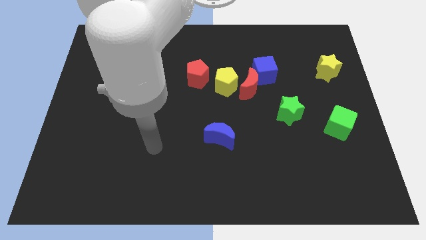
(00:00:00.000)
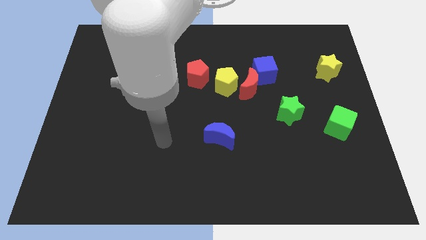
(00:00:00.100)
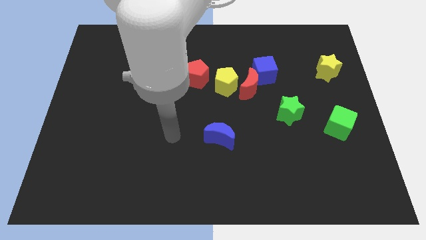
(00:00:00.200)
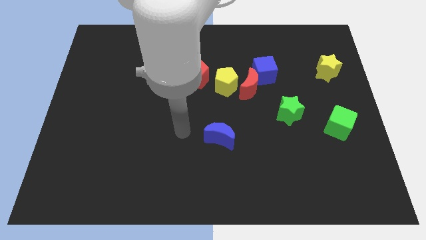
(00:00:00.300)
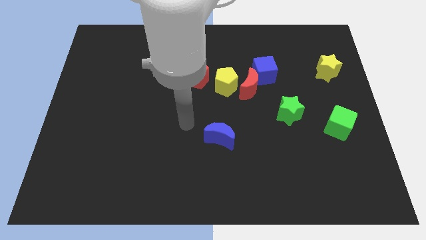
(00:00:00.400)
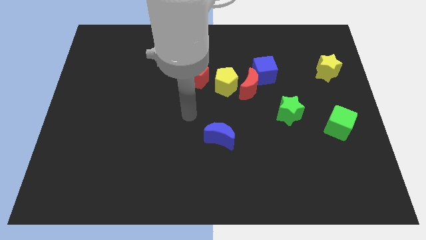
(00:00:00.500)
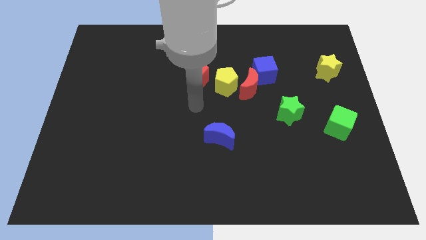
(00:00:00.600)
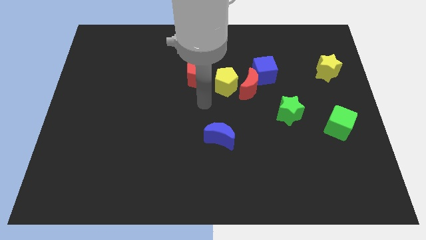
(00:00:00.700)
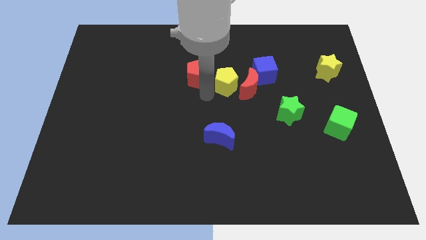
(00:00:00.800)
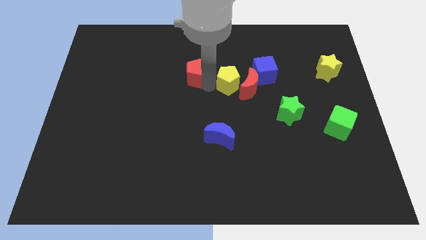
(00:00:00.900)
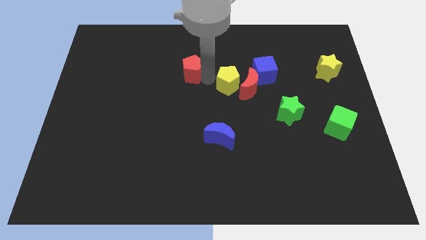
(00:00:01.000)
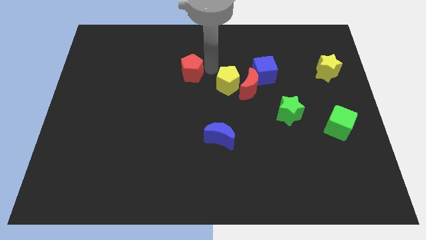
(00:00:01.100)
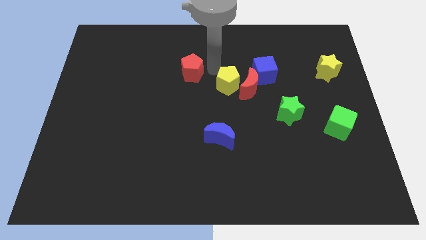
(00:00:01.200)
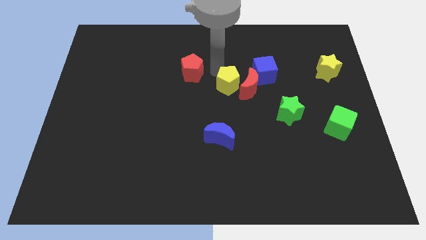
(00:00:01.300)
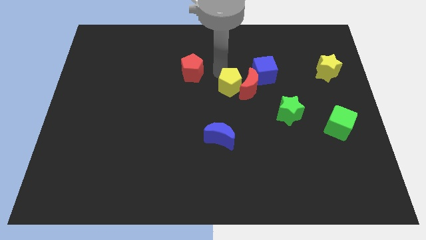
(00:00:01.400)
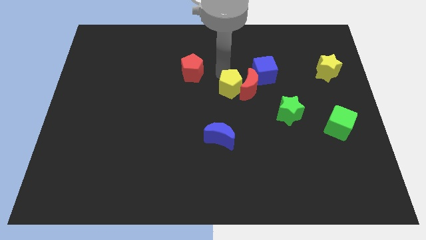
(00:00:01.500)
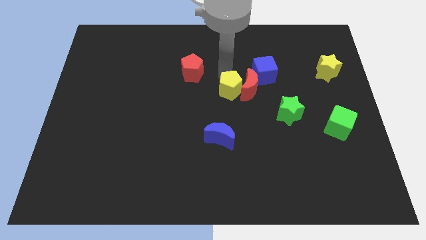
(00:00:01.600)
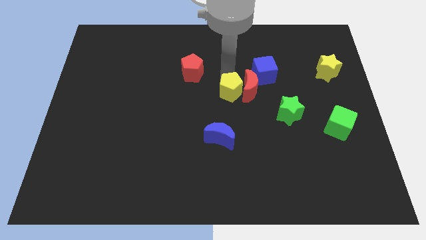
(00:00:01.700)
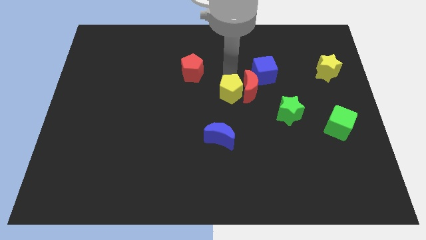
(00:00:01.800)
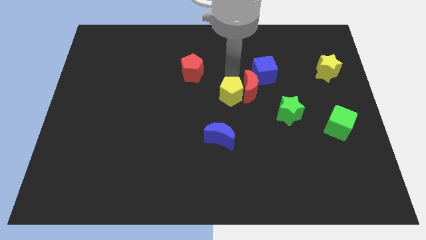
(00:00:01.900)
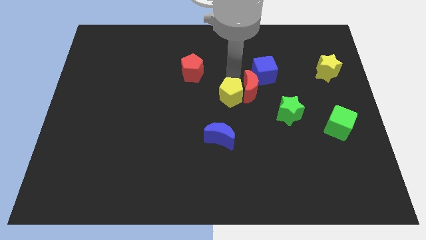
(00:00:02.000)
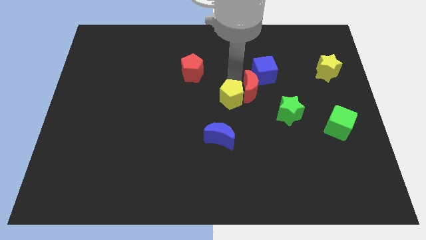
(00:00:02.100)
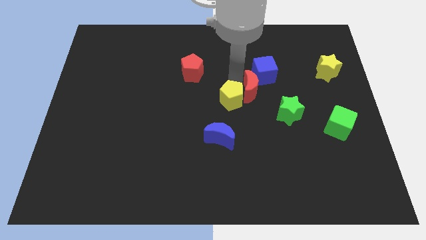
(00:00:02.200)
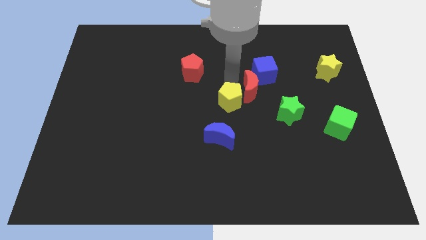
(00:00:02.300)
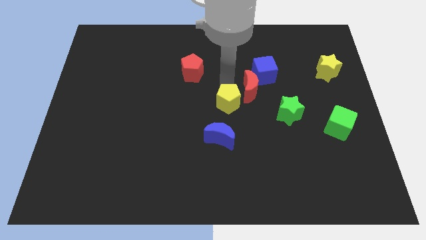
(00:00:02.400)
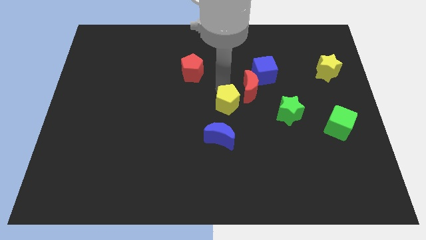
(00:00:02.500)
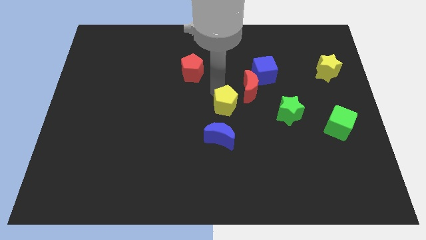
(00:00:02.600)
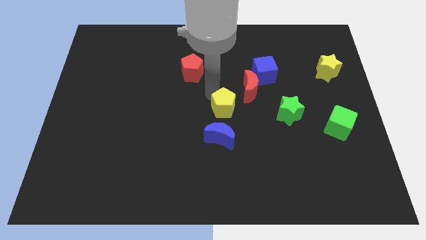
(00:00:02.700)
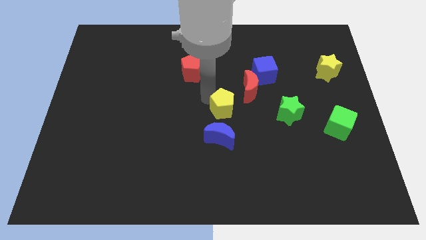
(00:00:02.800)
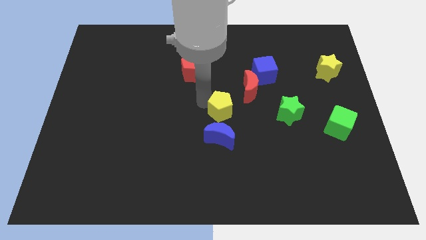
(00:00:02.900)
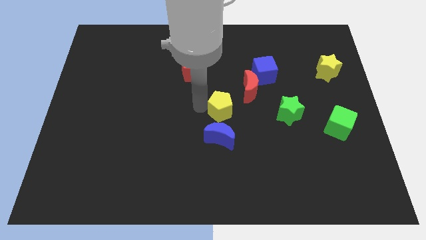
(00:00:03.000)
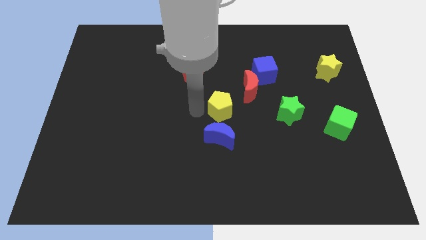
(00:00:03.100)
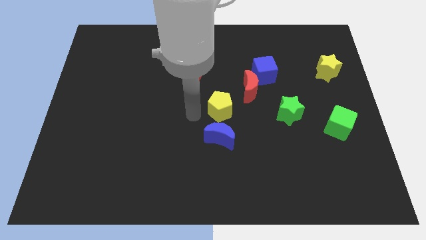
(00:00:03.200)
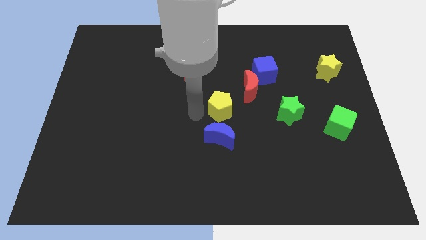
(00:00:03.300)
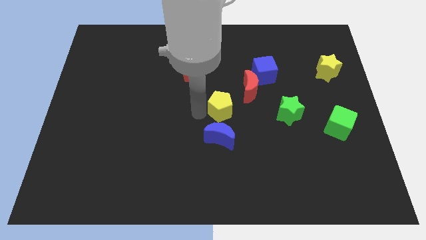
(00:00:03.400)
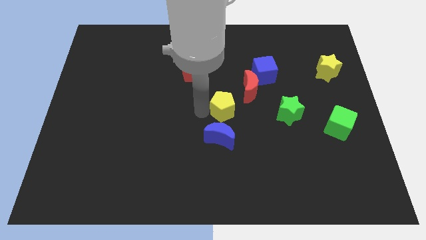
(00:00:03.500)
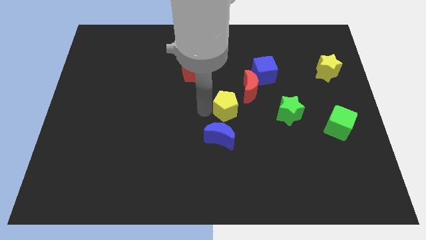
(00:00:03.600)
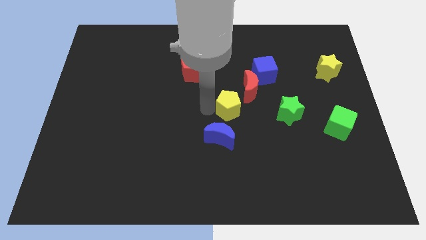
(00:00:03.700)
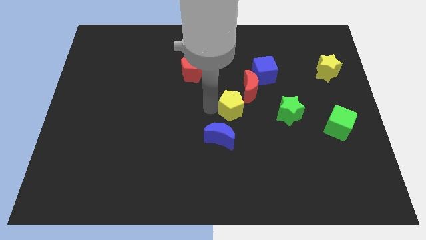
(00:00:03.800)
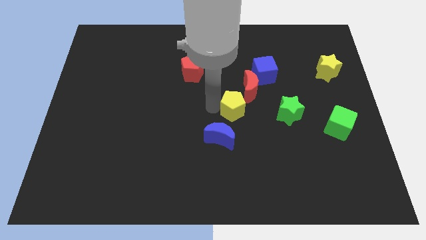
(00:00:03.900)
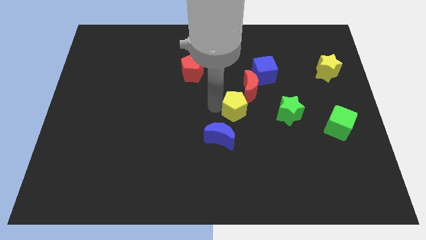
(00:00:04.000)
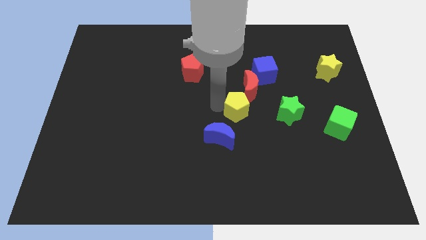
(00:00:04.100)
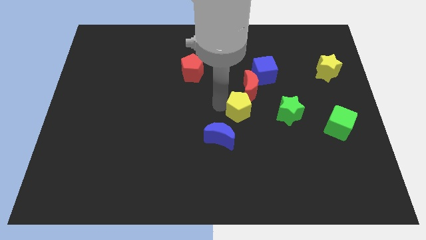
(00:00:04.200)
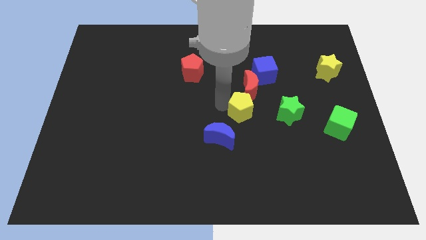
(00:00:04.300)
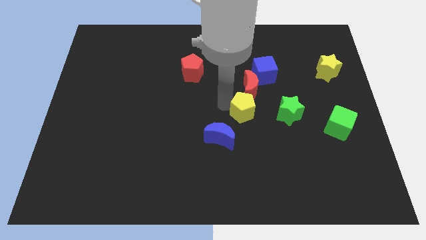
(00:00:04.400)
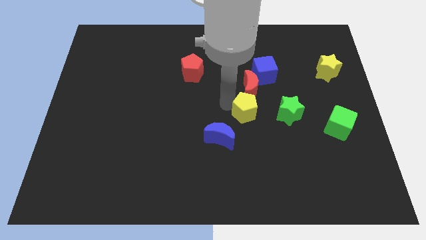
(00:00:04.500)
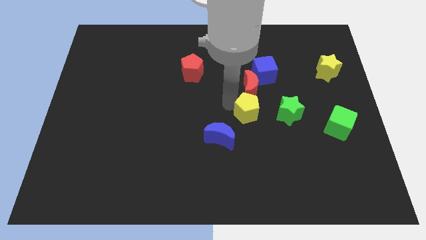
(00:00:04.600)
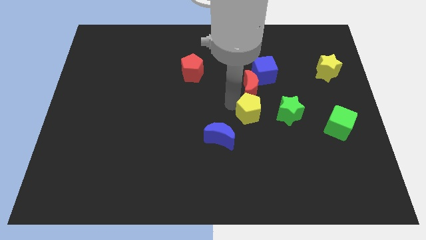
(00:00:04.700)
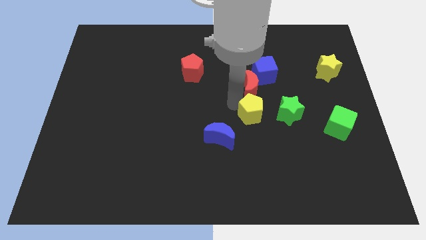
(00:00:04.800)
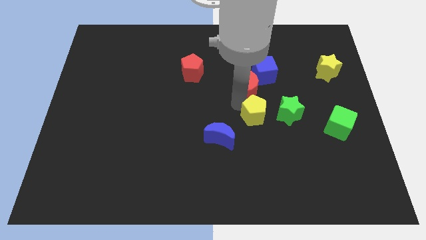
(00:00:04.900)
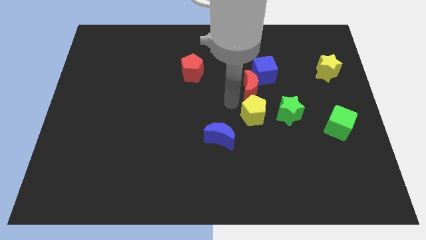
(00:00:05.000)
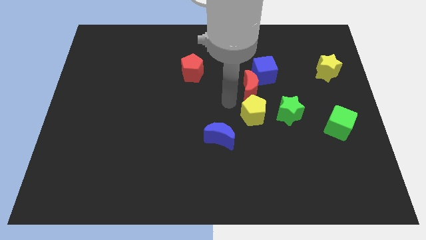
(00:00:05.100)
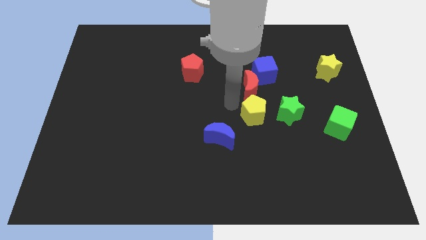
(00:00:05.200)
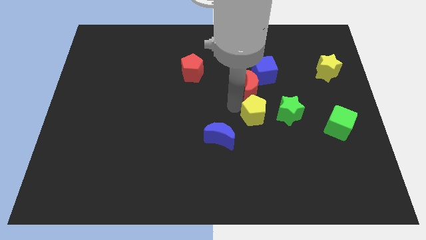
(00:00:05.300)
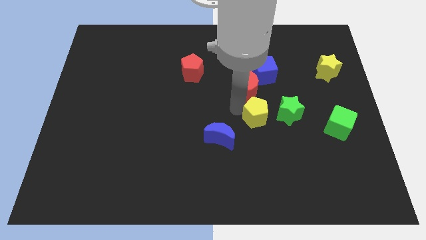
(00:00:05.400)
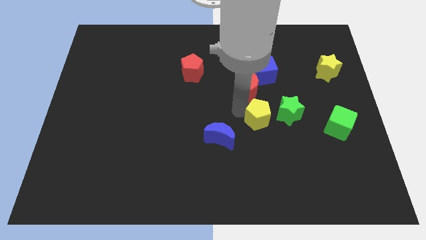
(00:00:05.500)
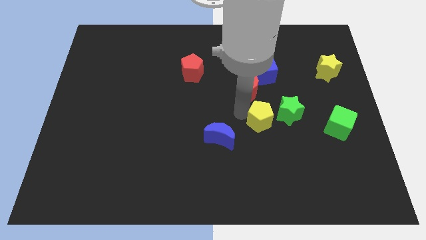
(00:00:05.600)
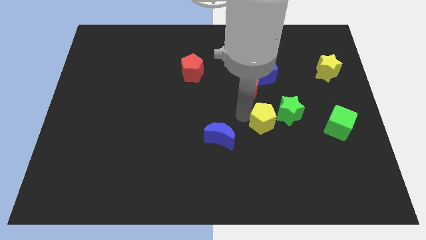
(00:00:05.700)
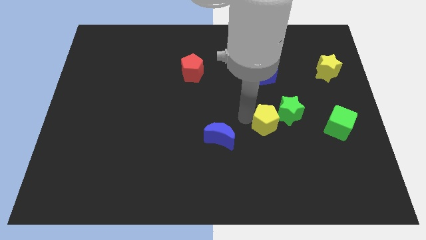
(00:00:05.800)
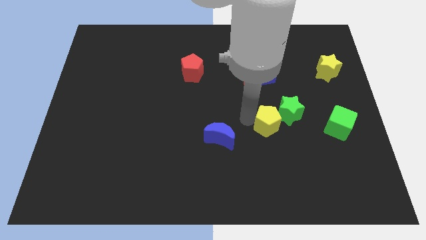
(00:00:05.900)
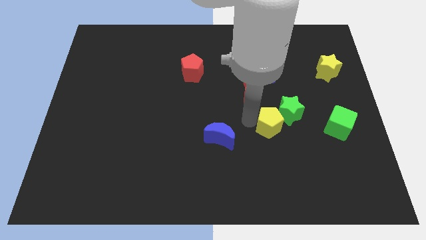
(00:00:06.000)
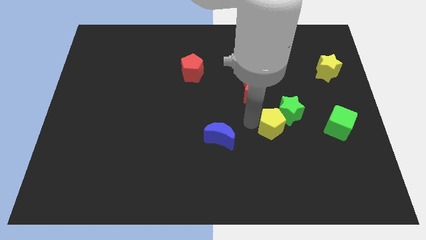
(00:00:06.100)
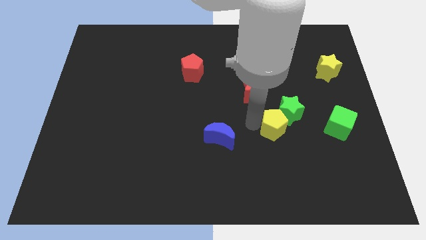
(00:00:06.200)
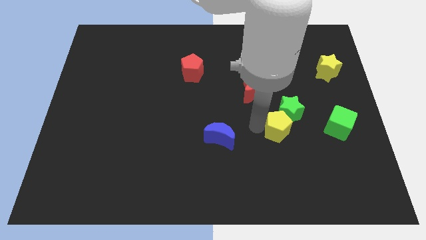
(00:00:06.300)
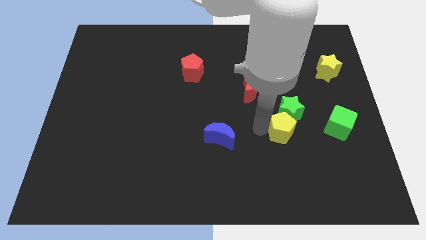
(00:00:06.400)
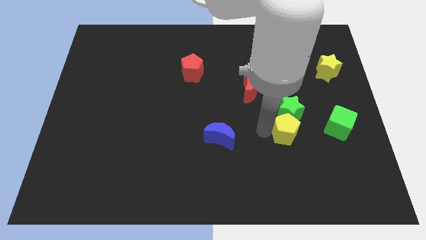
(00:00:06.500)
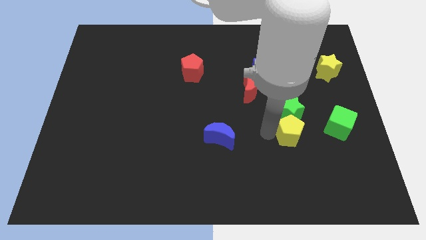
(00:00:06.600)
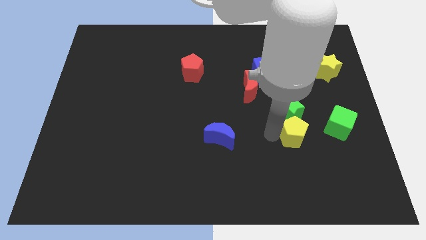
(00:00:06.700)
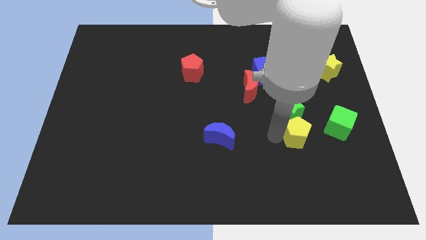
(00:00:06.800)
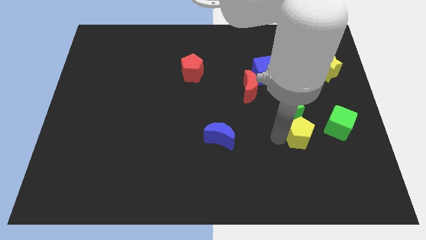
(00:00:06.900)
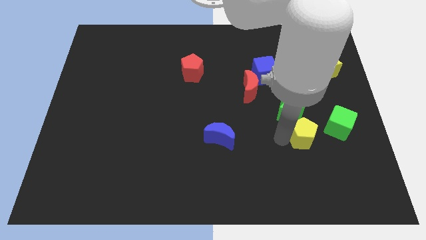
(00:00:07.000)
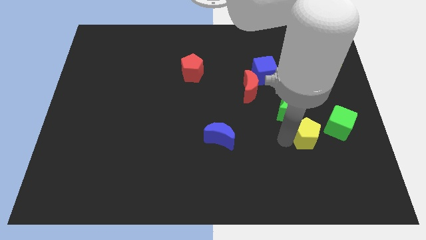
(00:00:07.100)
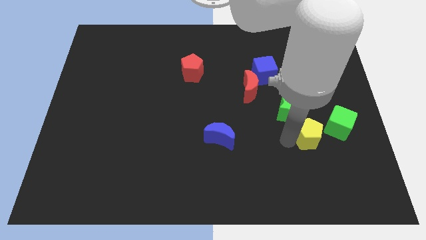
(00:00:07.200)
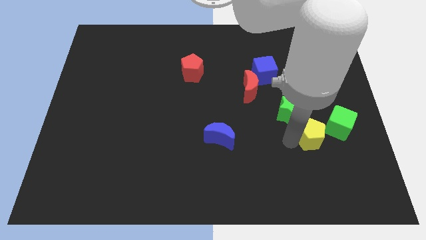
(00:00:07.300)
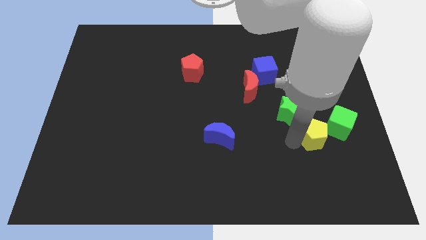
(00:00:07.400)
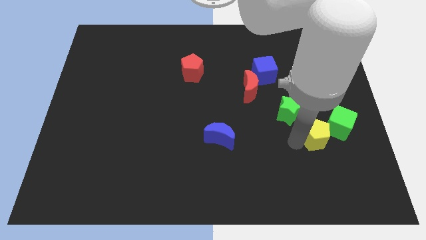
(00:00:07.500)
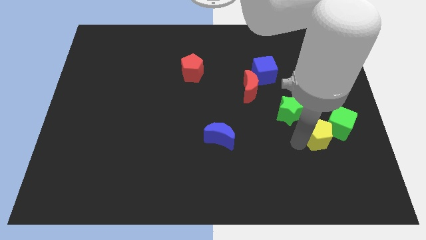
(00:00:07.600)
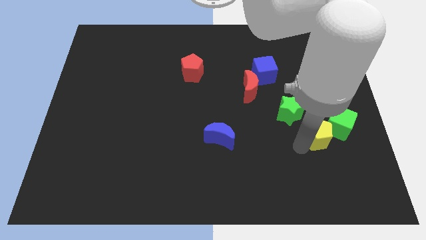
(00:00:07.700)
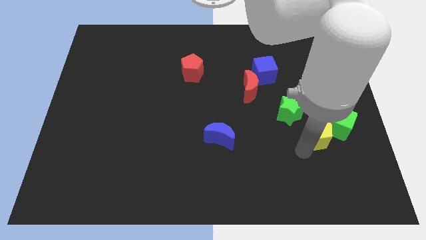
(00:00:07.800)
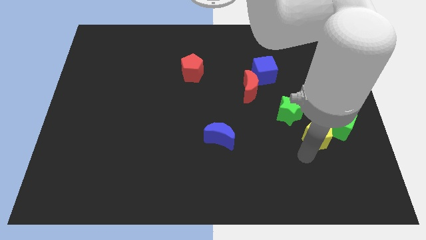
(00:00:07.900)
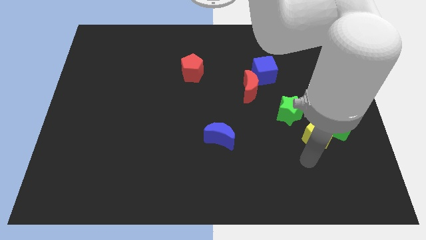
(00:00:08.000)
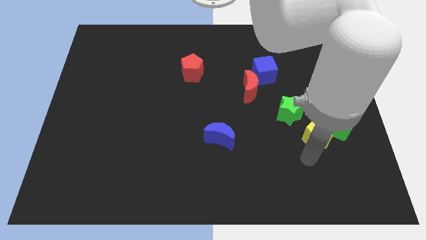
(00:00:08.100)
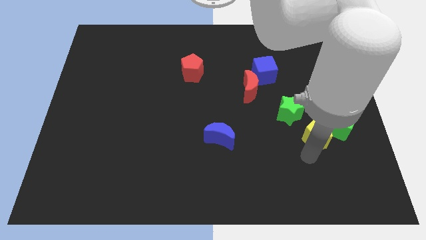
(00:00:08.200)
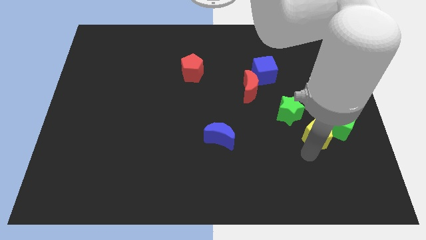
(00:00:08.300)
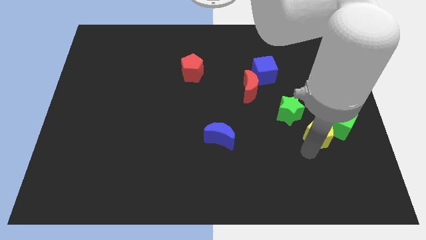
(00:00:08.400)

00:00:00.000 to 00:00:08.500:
push the yellow pentagon to the green cube
